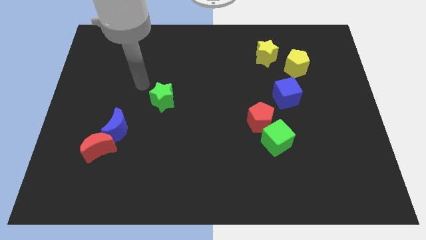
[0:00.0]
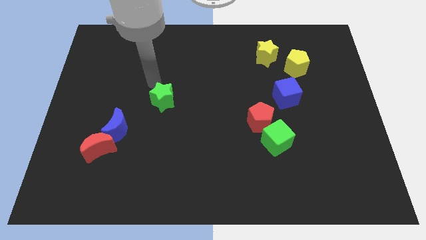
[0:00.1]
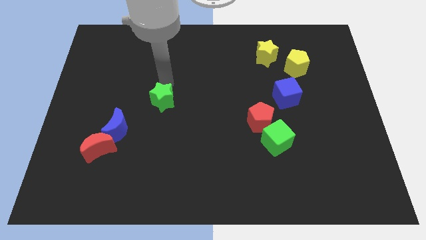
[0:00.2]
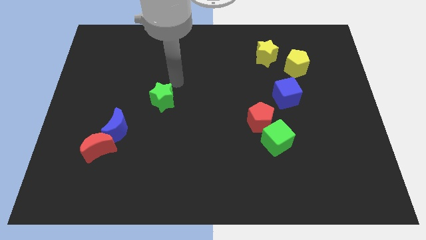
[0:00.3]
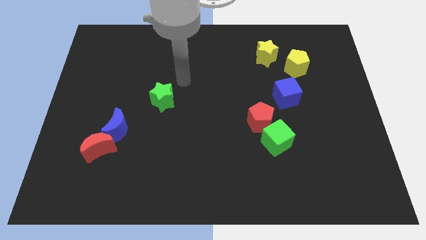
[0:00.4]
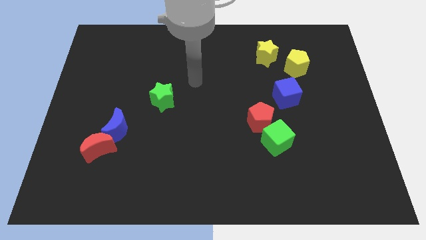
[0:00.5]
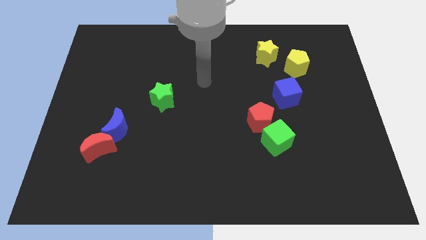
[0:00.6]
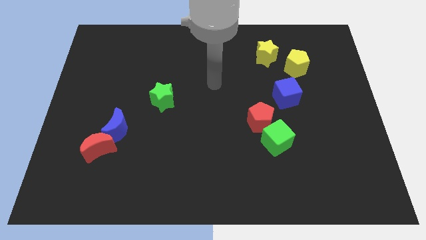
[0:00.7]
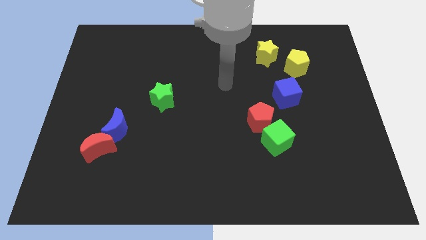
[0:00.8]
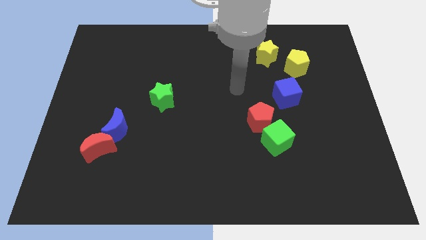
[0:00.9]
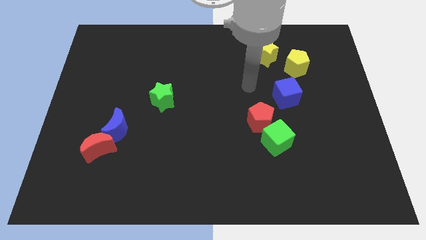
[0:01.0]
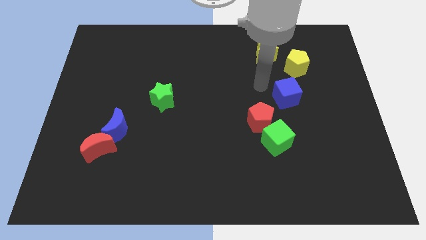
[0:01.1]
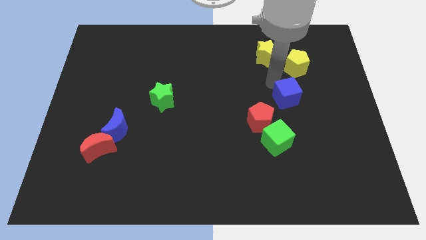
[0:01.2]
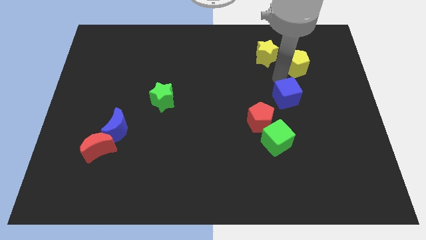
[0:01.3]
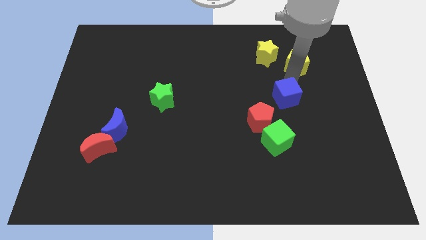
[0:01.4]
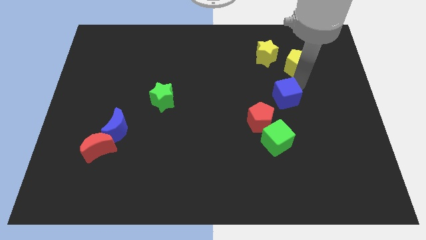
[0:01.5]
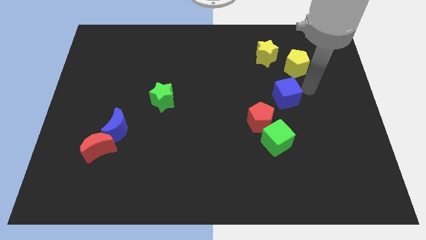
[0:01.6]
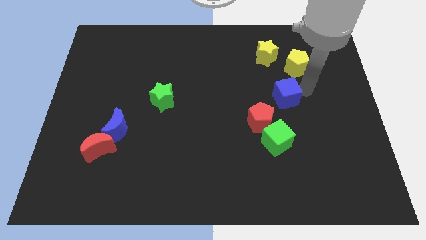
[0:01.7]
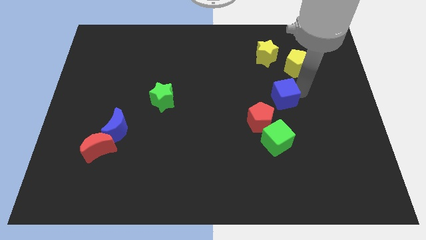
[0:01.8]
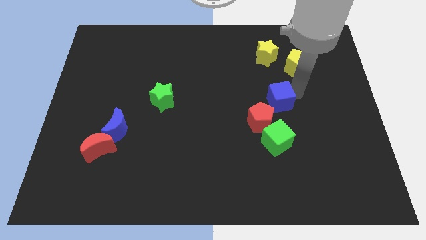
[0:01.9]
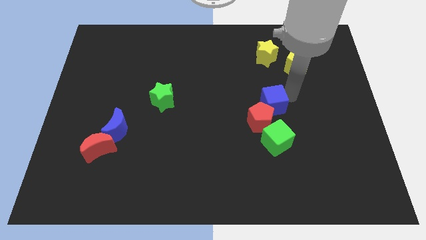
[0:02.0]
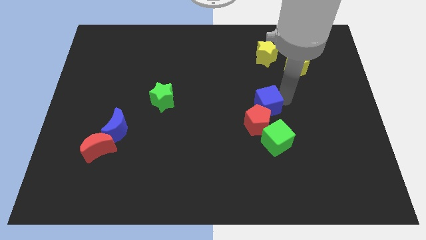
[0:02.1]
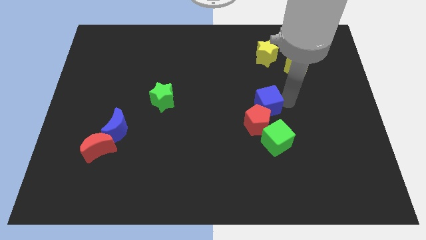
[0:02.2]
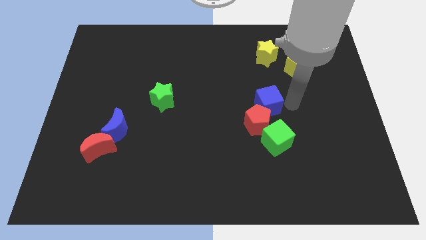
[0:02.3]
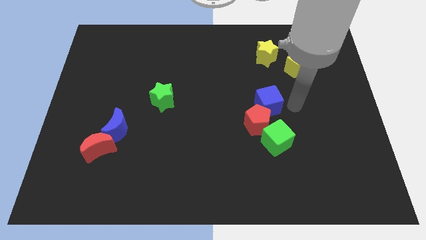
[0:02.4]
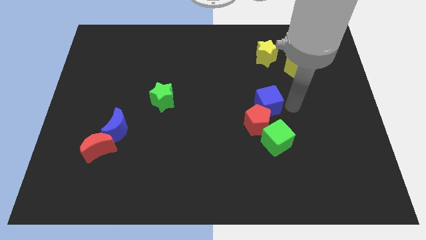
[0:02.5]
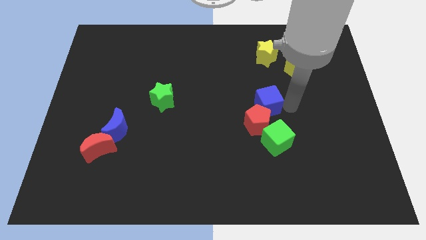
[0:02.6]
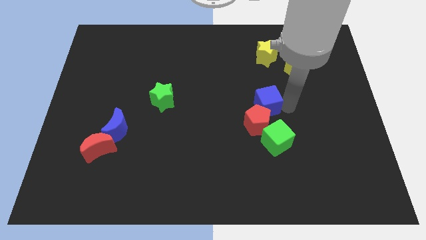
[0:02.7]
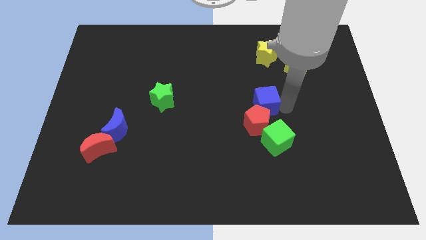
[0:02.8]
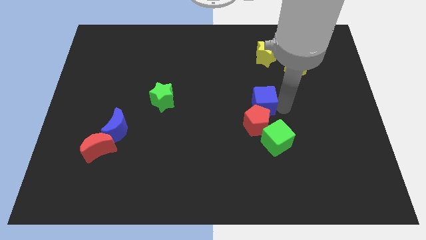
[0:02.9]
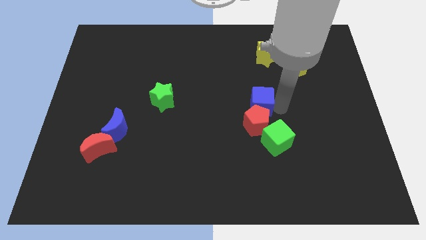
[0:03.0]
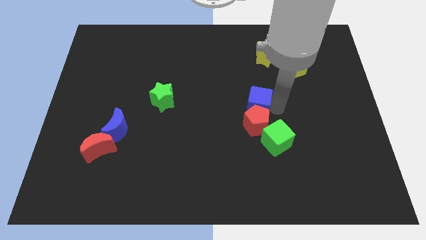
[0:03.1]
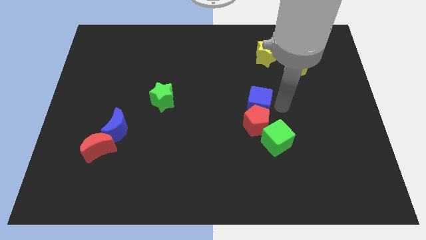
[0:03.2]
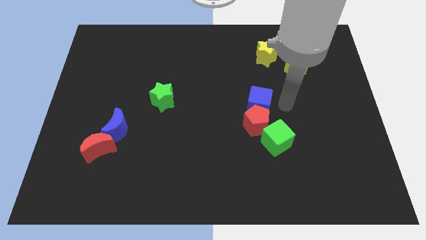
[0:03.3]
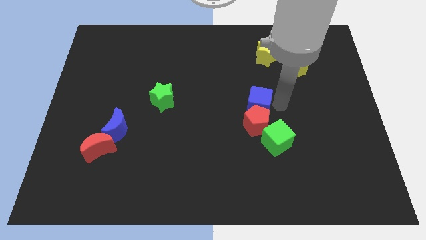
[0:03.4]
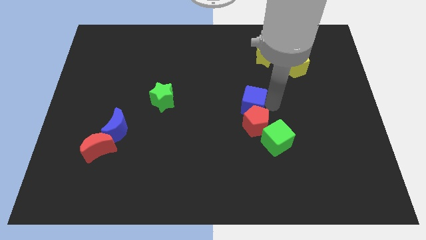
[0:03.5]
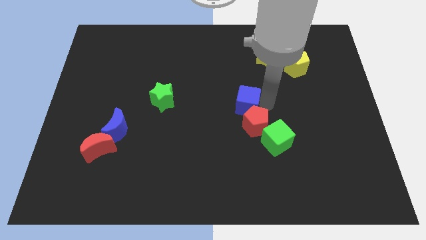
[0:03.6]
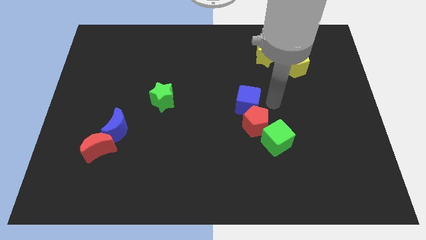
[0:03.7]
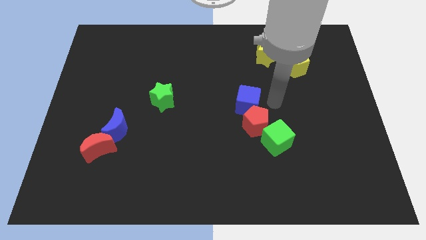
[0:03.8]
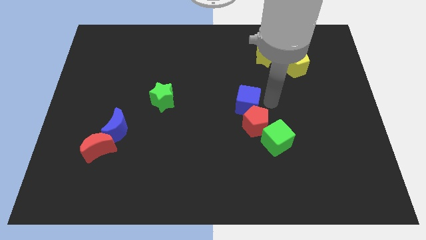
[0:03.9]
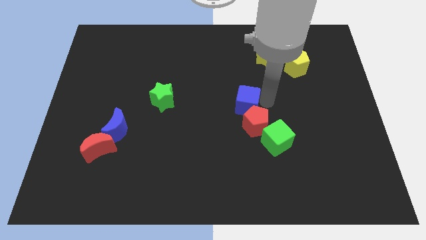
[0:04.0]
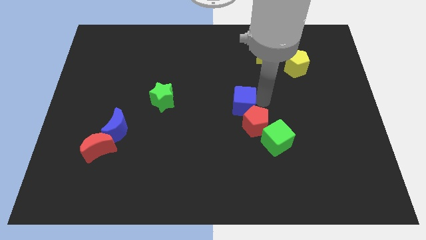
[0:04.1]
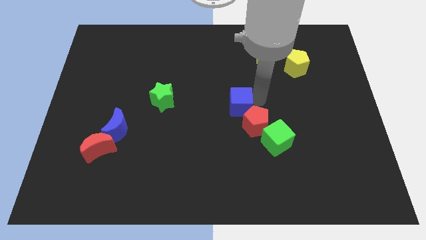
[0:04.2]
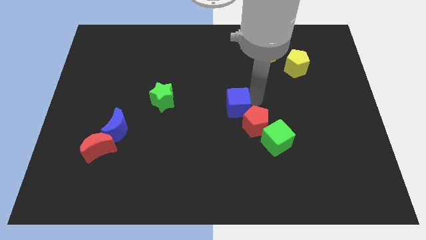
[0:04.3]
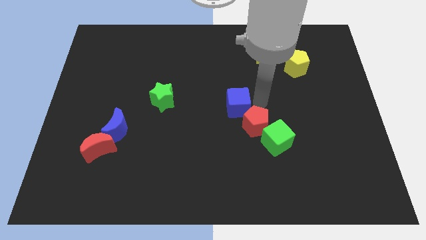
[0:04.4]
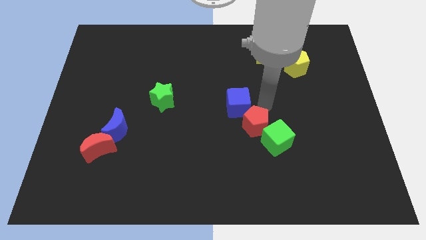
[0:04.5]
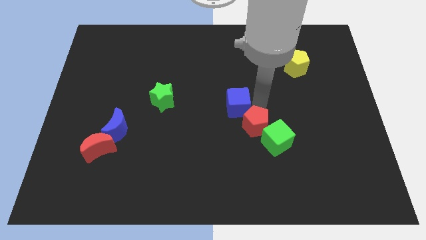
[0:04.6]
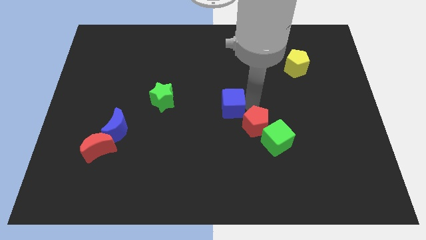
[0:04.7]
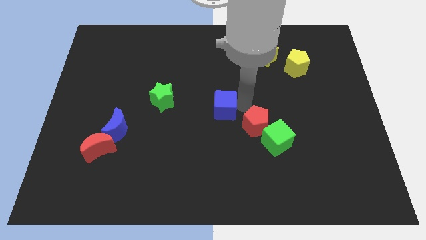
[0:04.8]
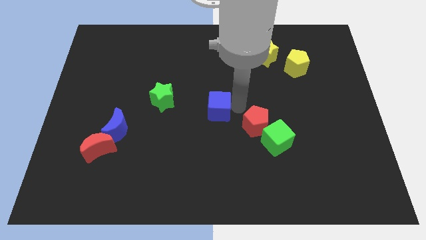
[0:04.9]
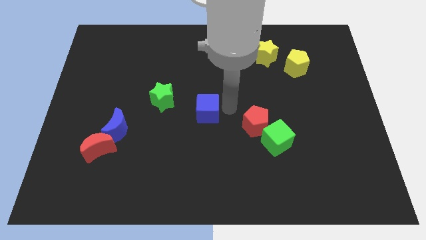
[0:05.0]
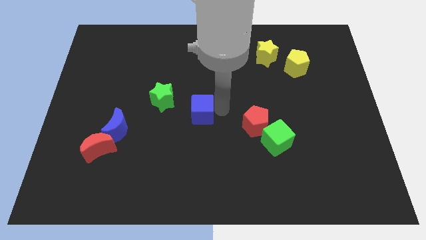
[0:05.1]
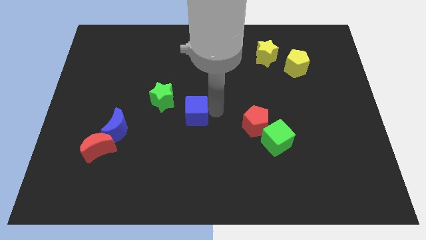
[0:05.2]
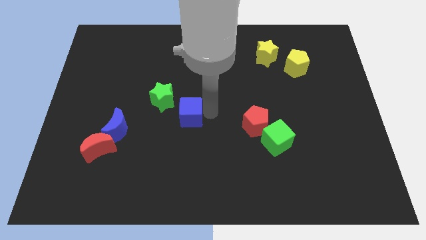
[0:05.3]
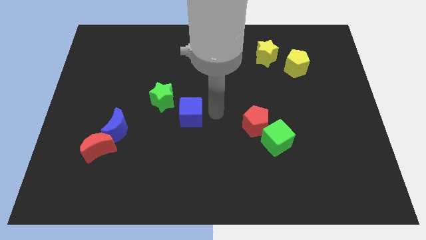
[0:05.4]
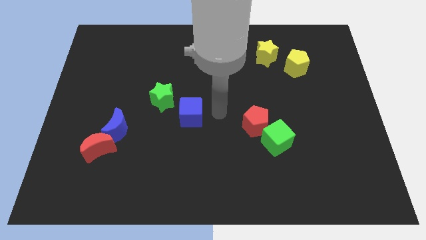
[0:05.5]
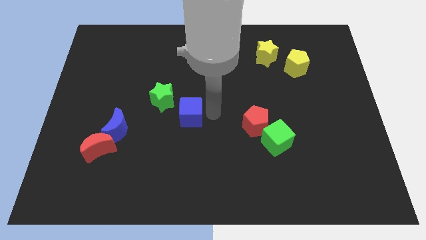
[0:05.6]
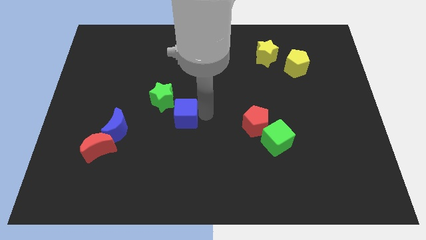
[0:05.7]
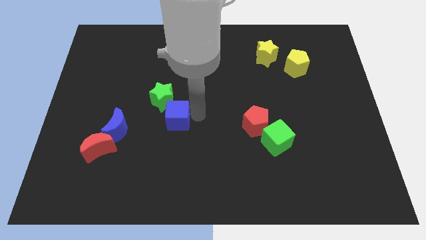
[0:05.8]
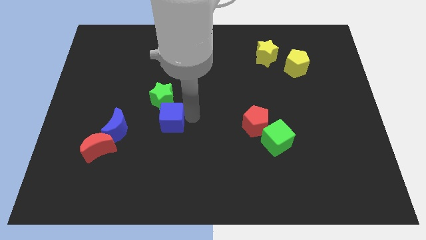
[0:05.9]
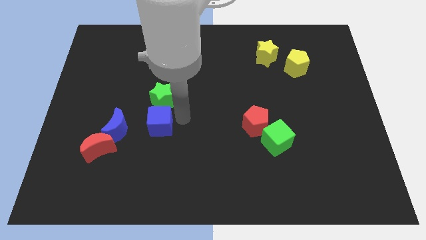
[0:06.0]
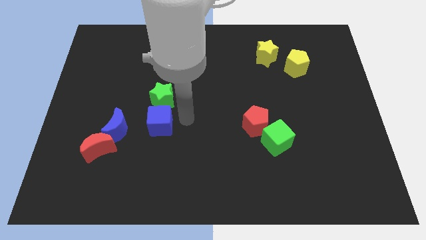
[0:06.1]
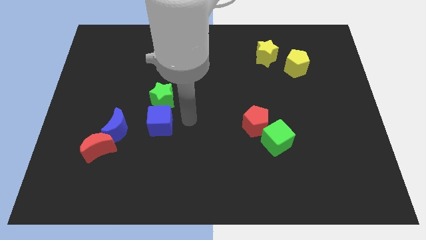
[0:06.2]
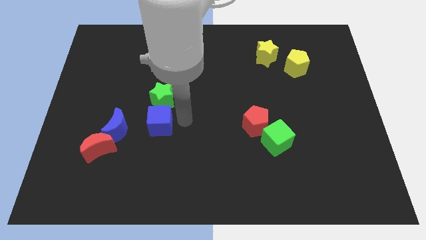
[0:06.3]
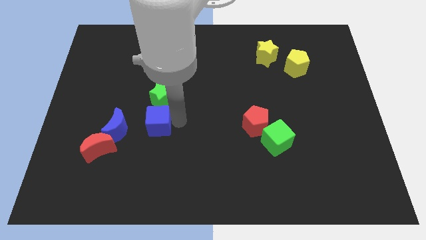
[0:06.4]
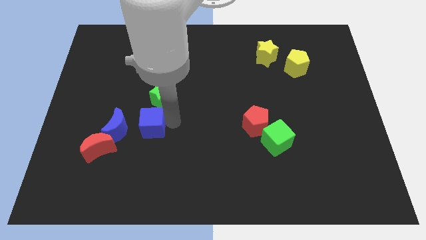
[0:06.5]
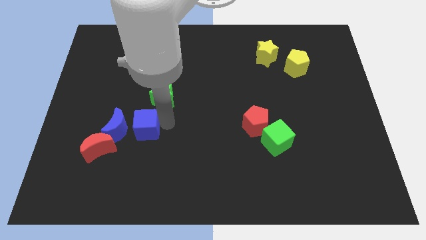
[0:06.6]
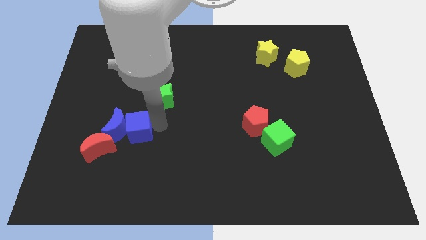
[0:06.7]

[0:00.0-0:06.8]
move the blue cube to the blue moon
